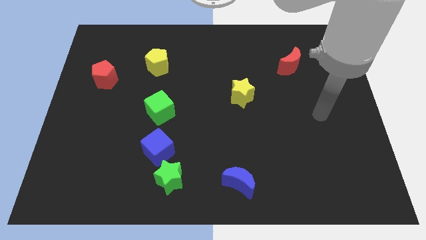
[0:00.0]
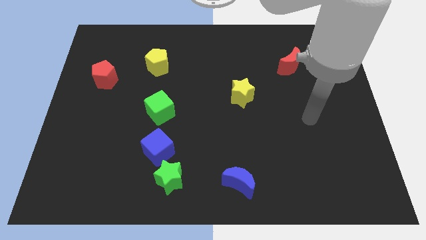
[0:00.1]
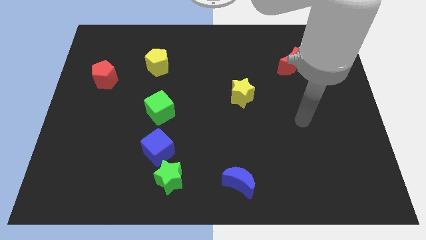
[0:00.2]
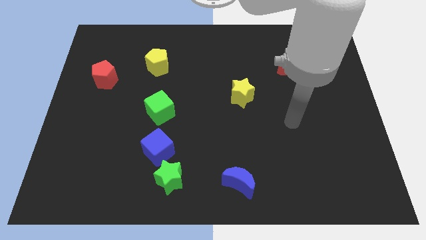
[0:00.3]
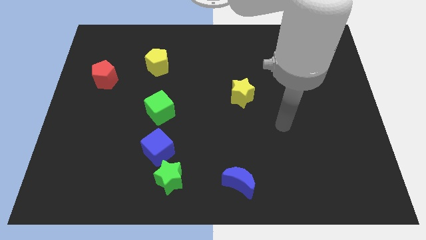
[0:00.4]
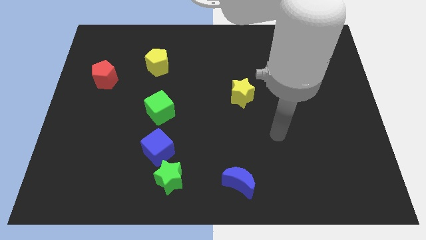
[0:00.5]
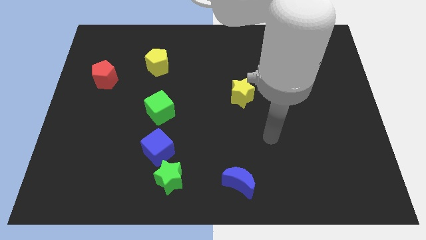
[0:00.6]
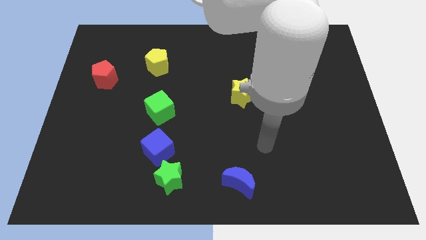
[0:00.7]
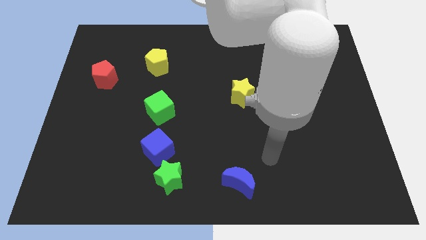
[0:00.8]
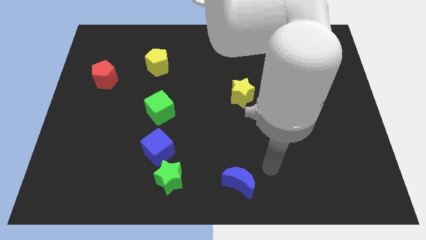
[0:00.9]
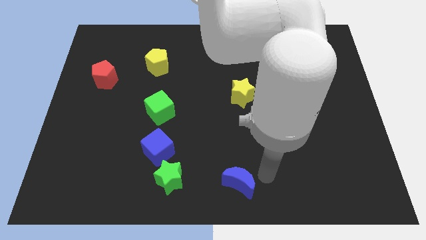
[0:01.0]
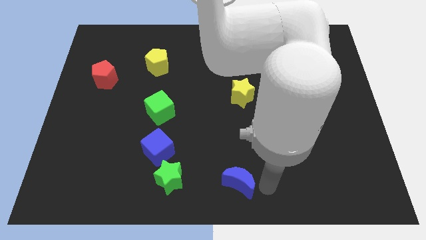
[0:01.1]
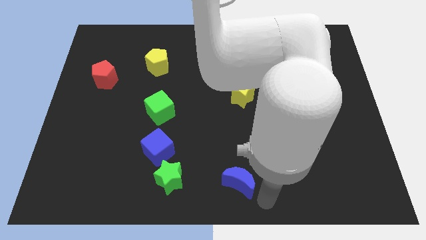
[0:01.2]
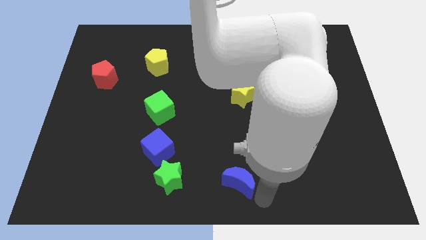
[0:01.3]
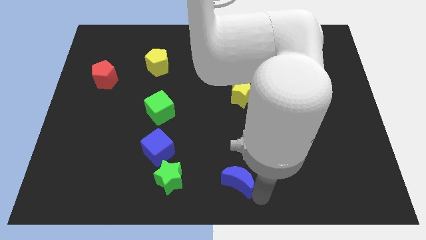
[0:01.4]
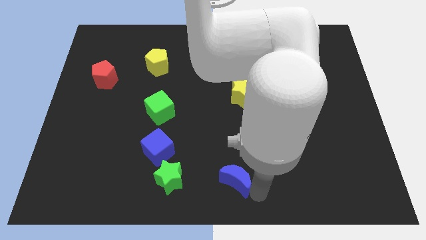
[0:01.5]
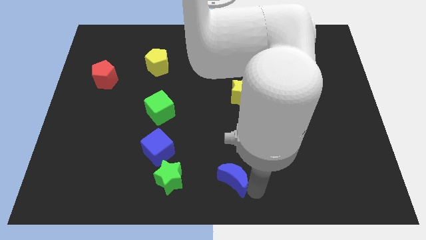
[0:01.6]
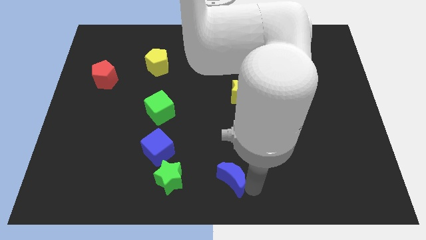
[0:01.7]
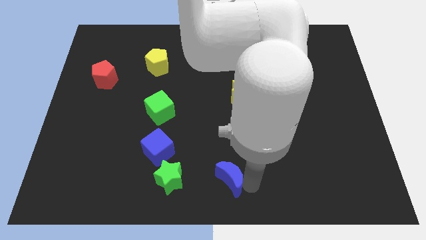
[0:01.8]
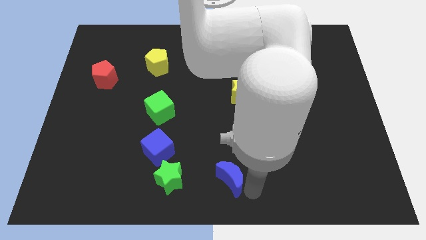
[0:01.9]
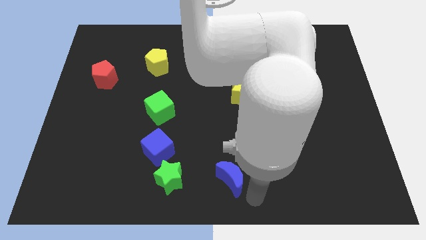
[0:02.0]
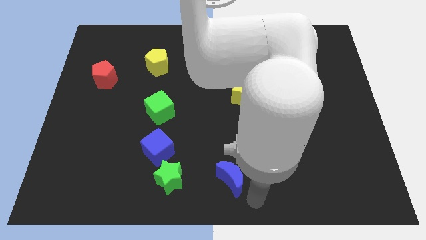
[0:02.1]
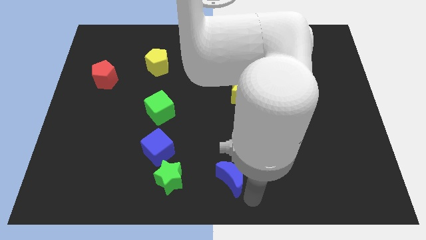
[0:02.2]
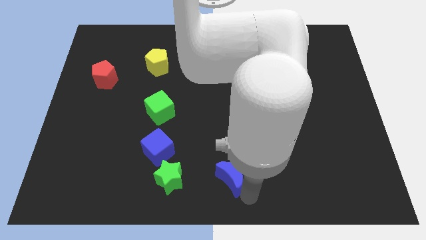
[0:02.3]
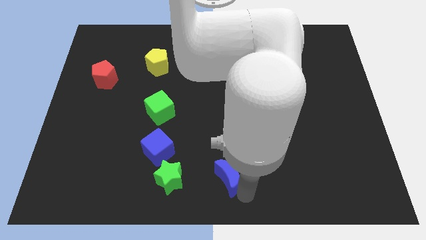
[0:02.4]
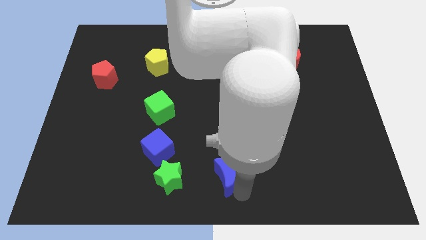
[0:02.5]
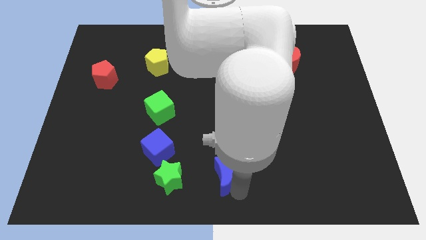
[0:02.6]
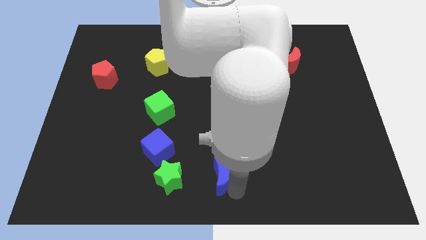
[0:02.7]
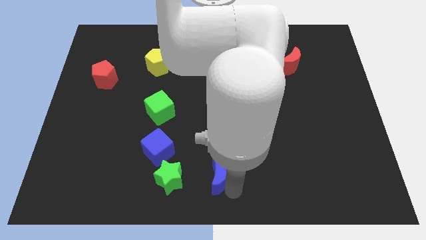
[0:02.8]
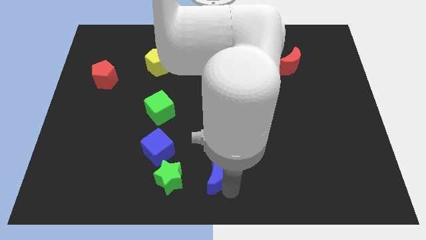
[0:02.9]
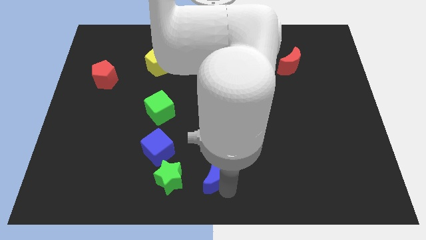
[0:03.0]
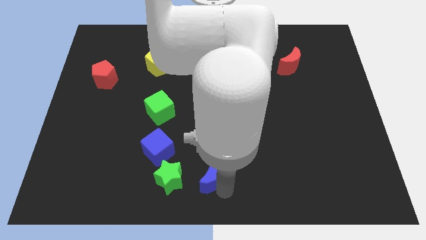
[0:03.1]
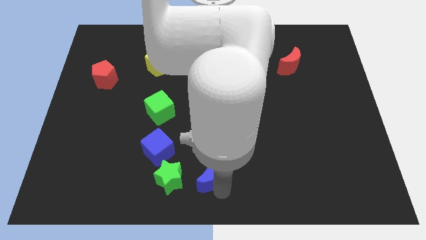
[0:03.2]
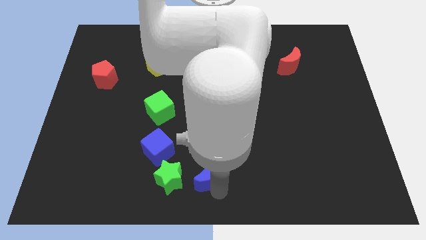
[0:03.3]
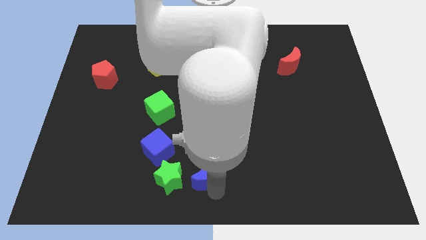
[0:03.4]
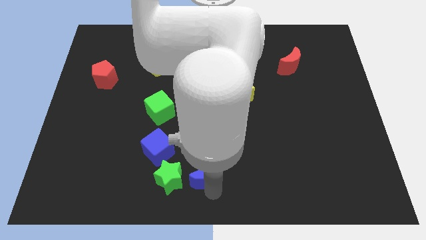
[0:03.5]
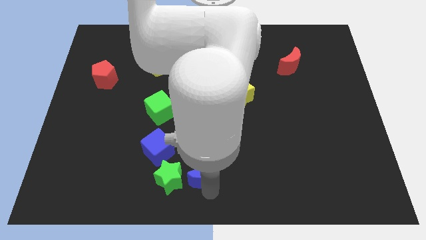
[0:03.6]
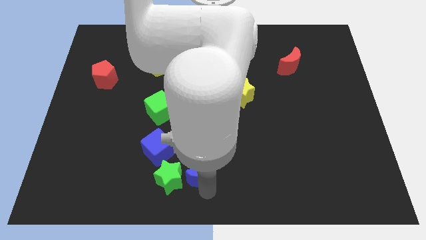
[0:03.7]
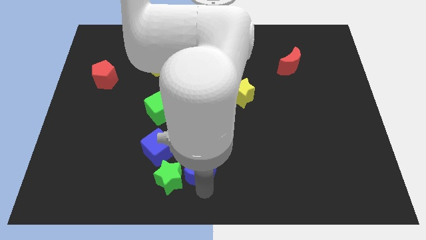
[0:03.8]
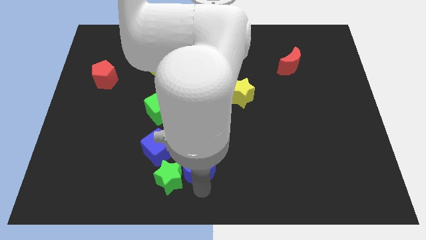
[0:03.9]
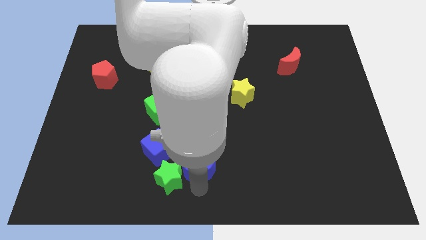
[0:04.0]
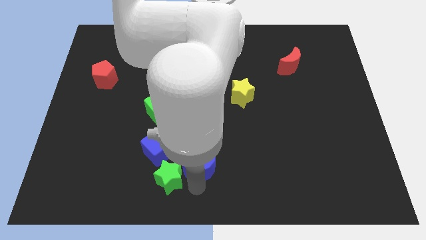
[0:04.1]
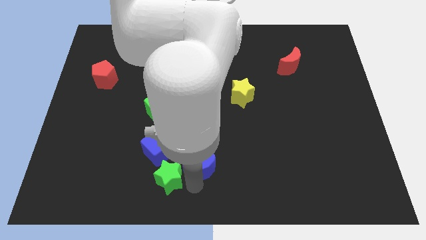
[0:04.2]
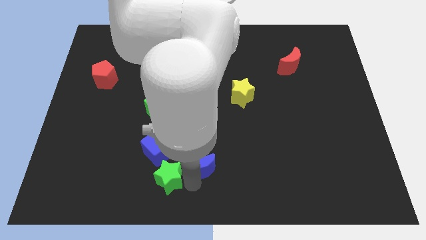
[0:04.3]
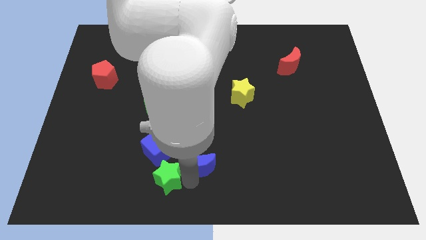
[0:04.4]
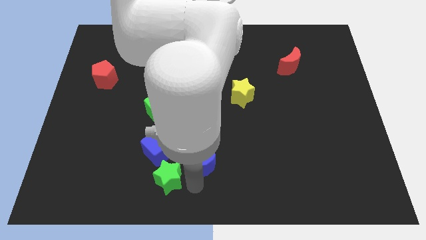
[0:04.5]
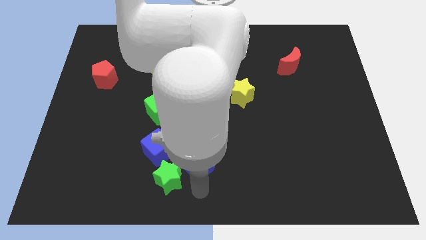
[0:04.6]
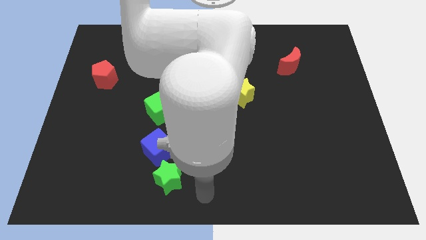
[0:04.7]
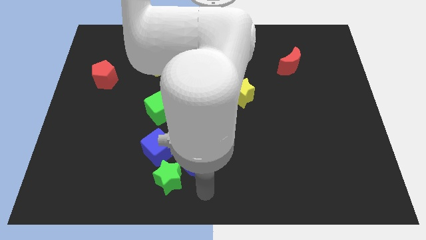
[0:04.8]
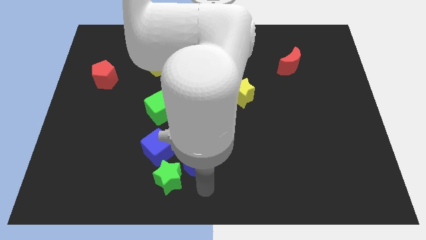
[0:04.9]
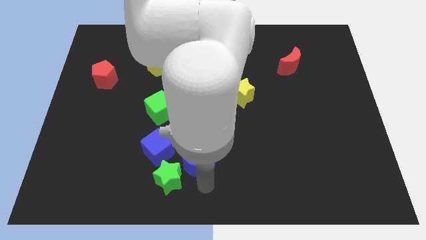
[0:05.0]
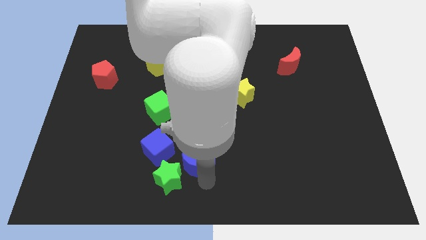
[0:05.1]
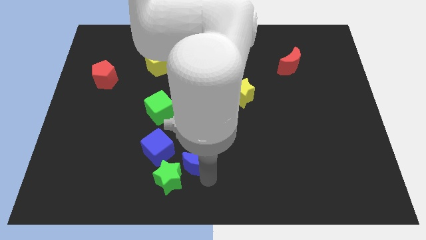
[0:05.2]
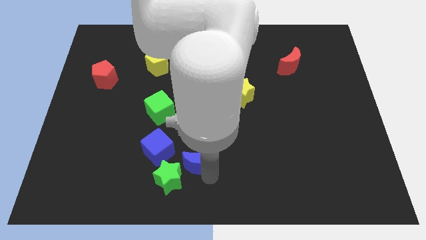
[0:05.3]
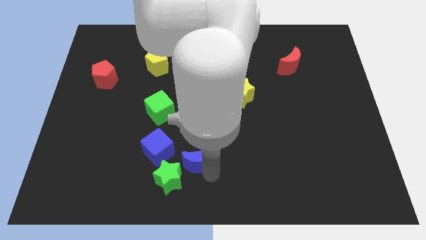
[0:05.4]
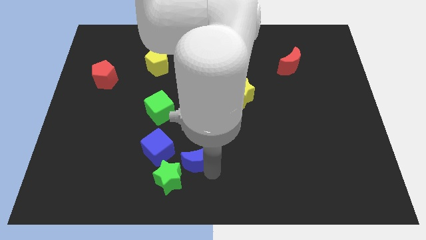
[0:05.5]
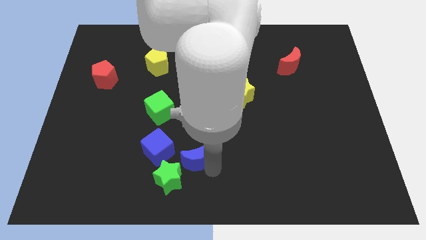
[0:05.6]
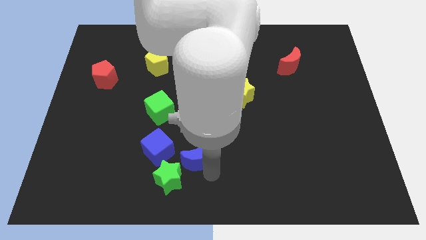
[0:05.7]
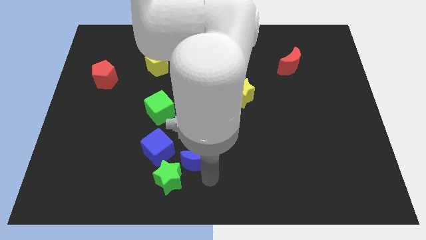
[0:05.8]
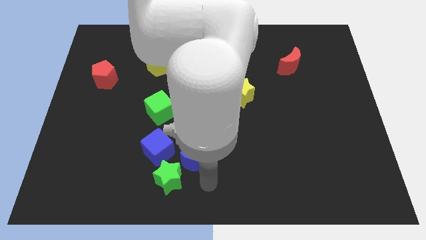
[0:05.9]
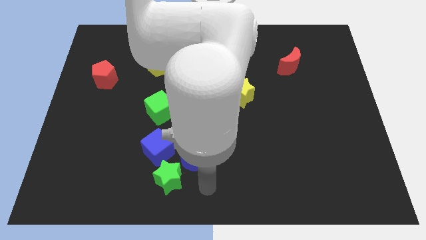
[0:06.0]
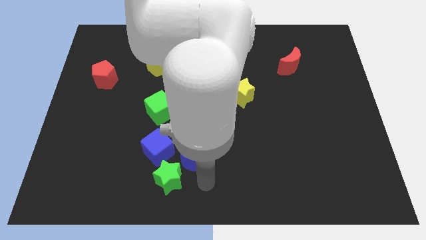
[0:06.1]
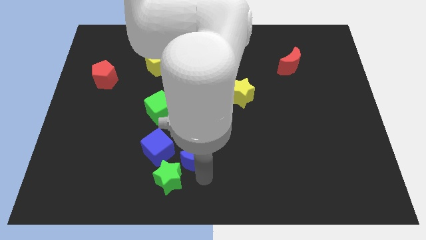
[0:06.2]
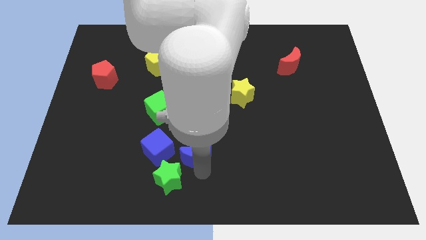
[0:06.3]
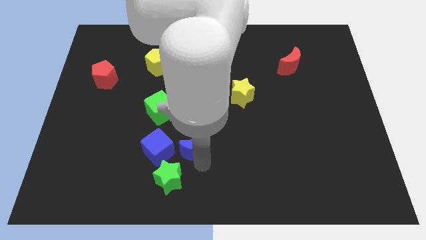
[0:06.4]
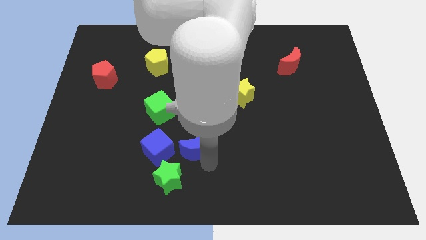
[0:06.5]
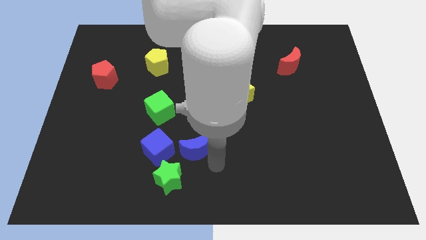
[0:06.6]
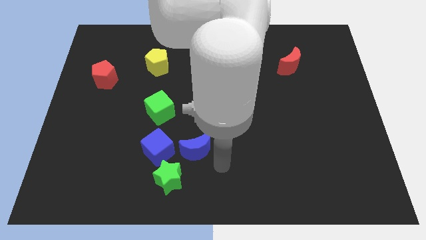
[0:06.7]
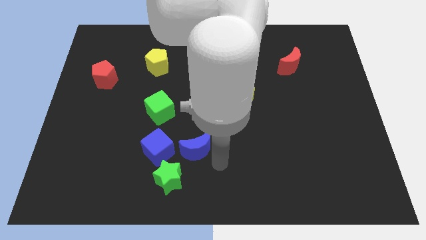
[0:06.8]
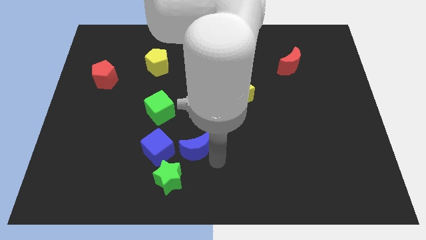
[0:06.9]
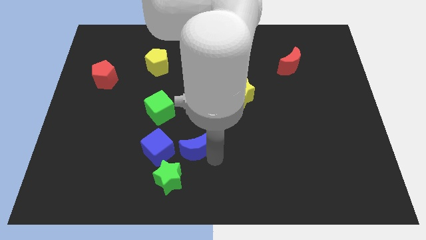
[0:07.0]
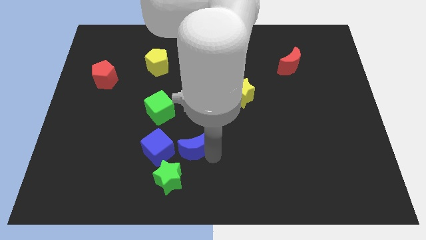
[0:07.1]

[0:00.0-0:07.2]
put the blue moon to the top of the green star
